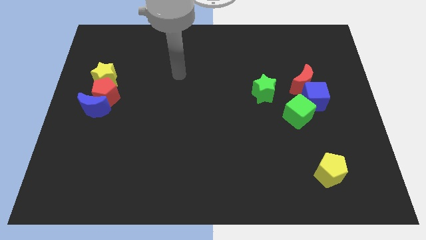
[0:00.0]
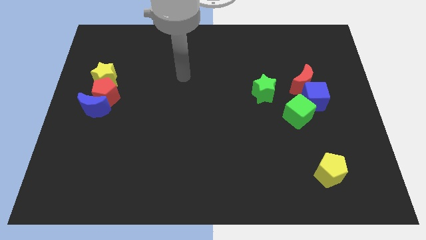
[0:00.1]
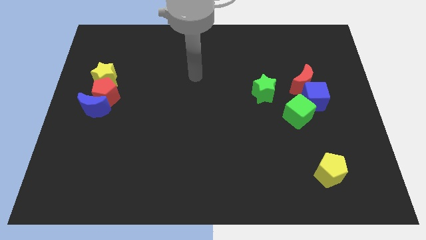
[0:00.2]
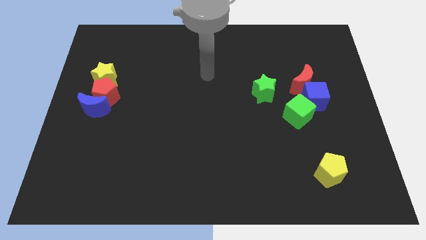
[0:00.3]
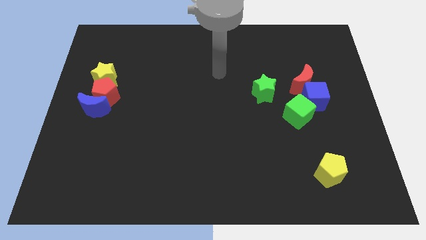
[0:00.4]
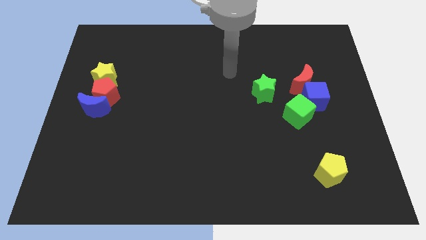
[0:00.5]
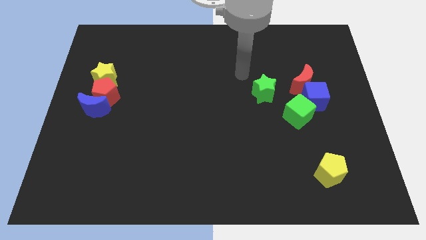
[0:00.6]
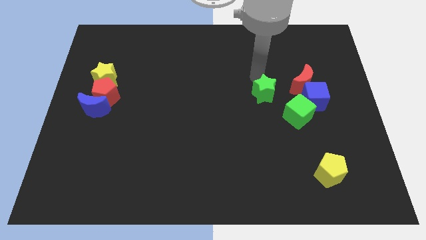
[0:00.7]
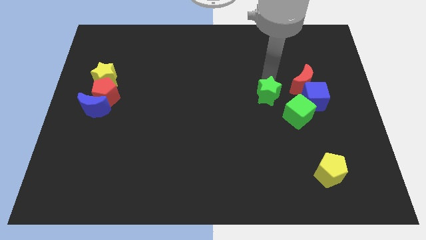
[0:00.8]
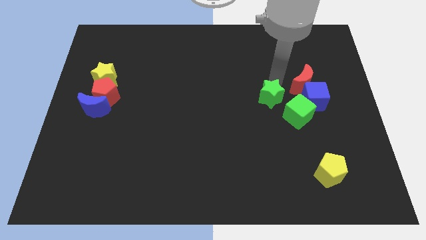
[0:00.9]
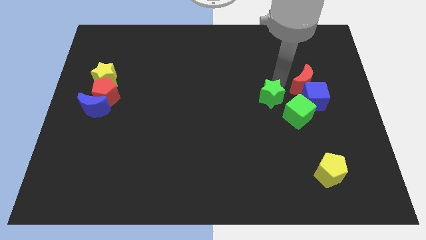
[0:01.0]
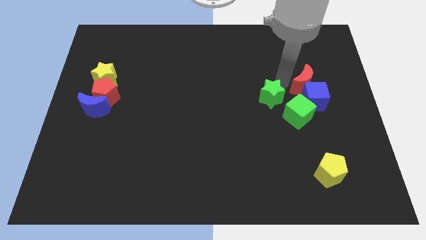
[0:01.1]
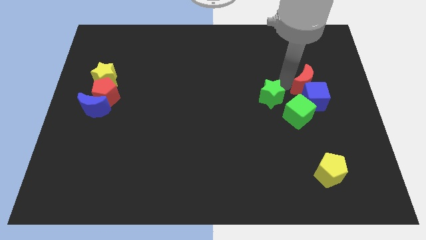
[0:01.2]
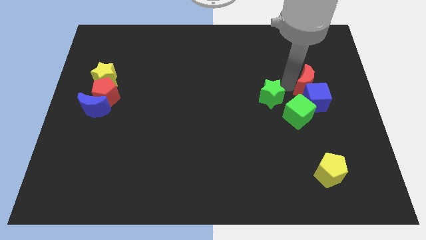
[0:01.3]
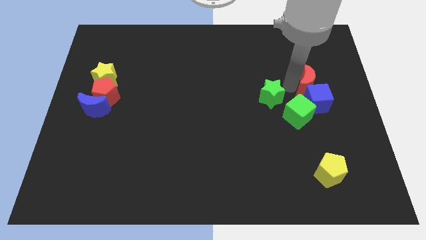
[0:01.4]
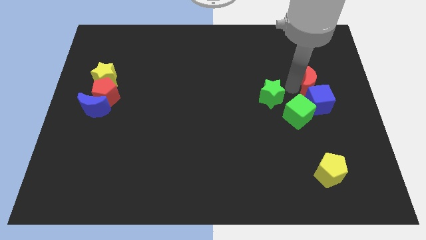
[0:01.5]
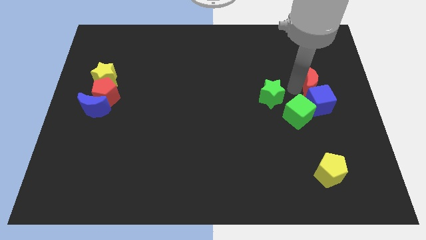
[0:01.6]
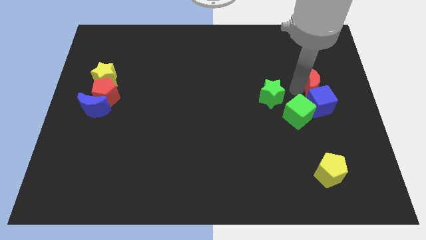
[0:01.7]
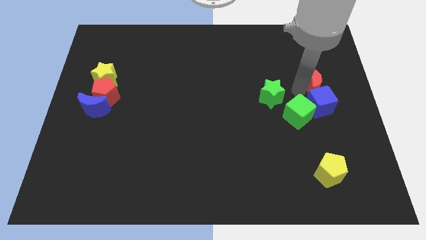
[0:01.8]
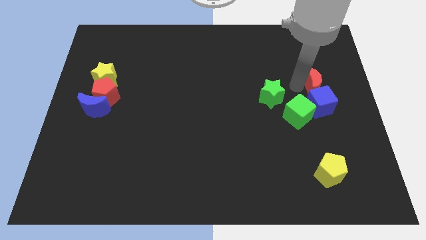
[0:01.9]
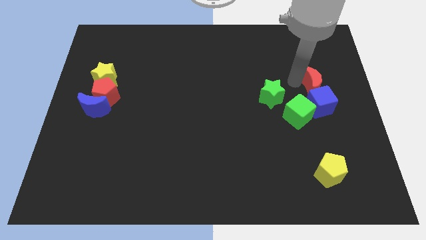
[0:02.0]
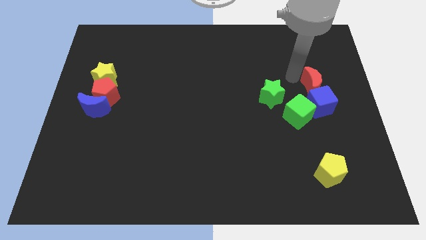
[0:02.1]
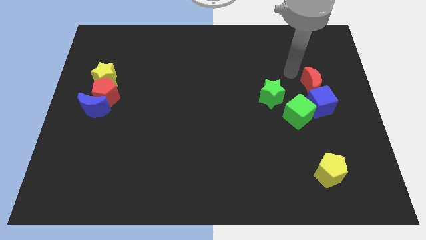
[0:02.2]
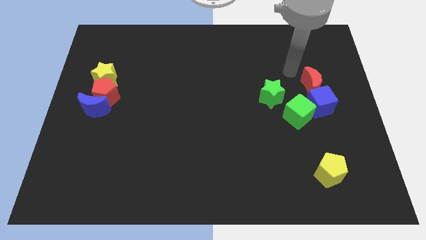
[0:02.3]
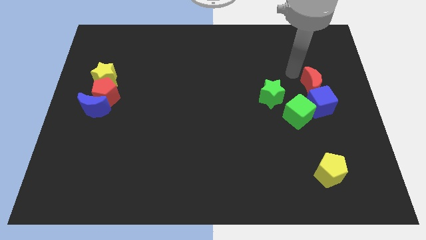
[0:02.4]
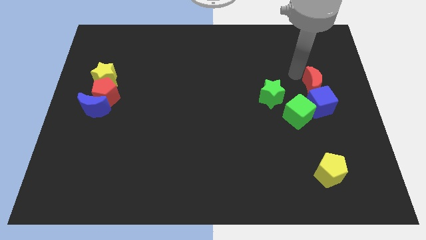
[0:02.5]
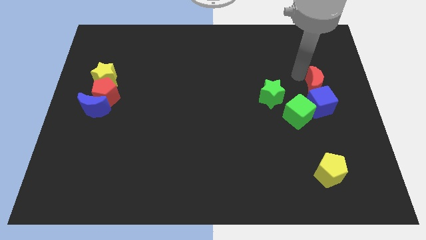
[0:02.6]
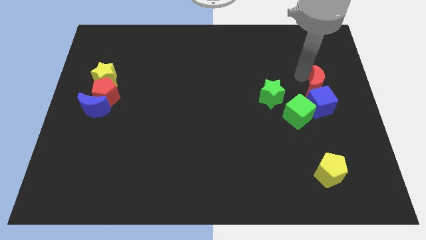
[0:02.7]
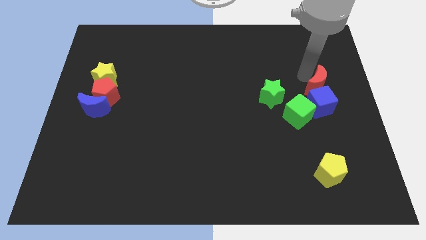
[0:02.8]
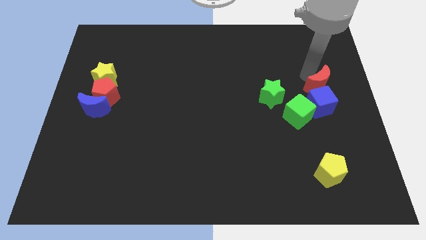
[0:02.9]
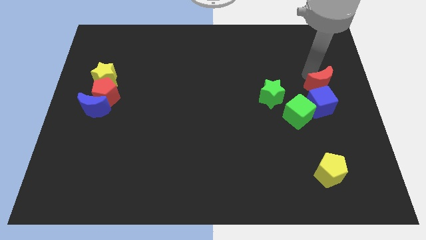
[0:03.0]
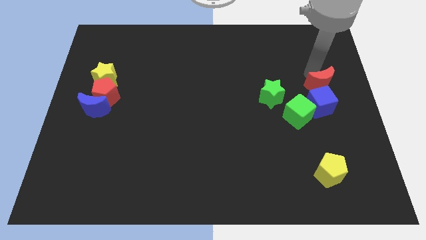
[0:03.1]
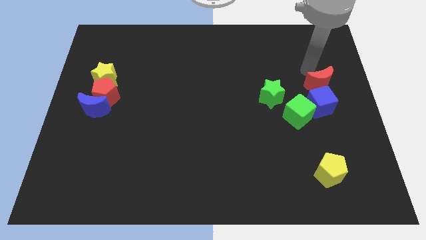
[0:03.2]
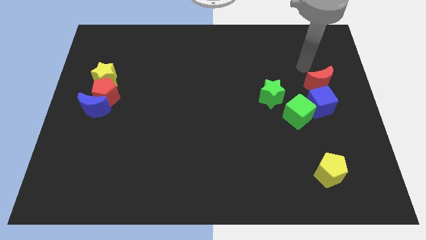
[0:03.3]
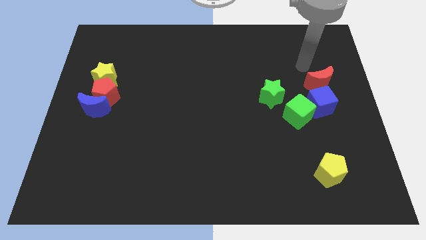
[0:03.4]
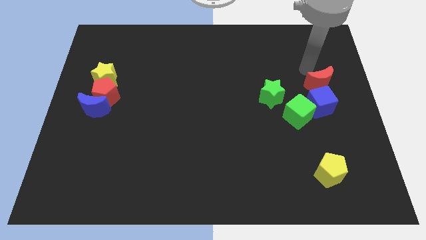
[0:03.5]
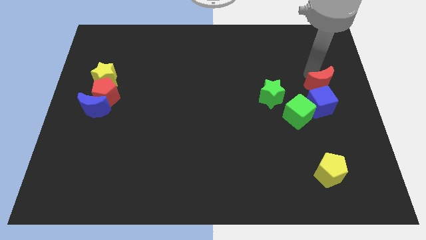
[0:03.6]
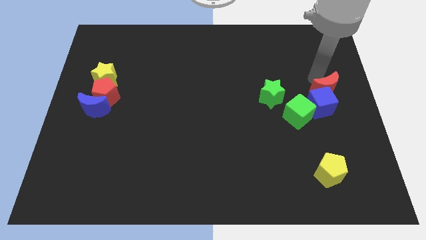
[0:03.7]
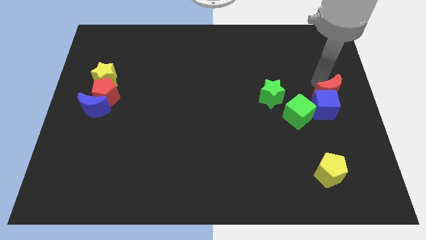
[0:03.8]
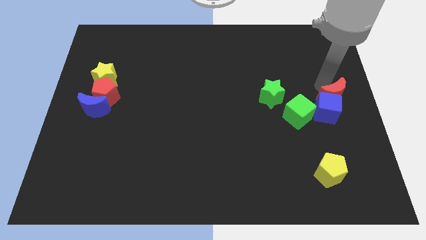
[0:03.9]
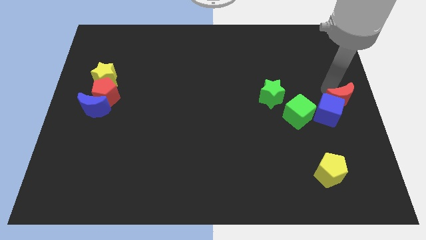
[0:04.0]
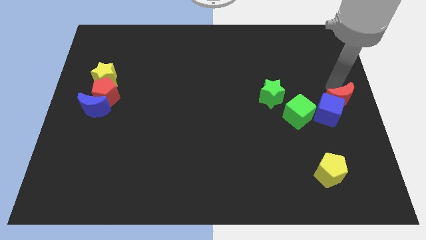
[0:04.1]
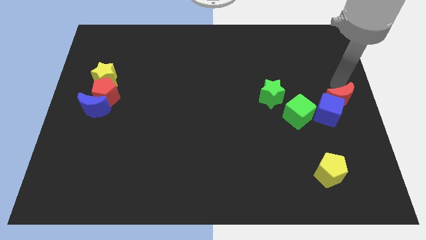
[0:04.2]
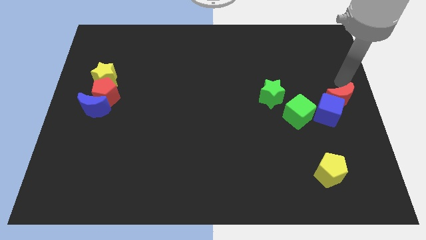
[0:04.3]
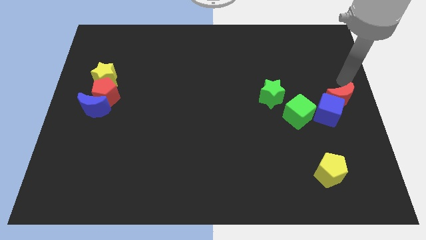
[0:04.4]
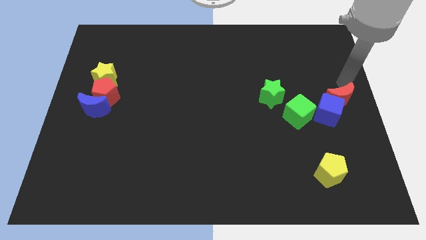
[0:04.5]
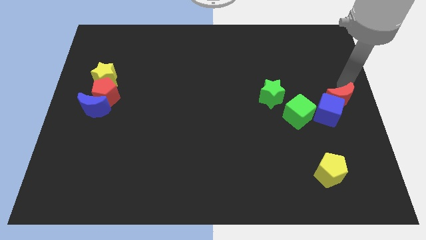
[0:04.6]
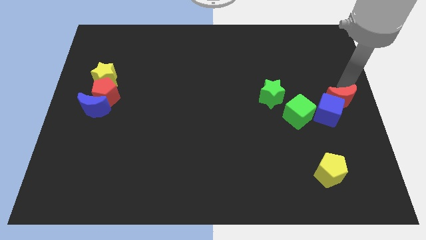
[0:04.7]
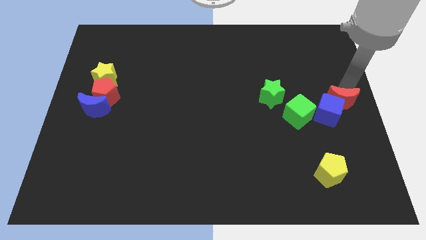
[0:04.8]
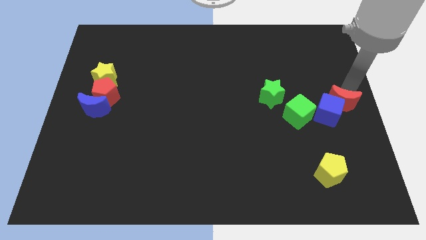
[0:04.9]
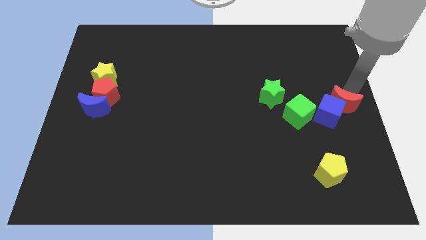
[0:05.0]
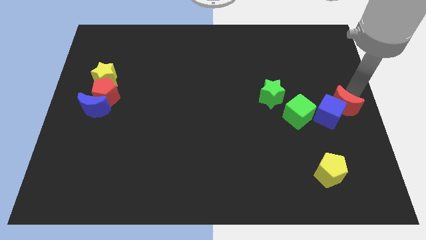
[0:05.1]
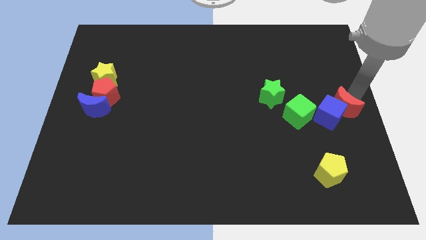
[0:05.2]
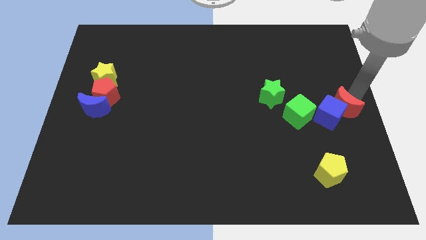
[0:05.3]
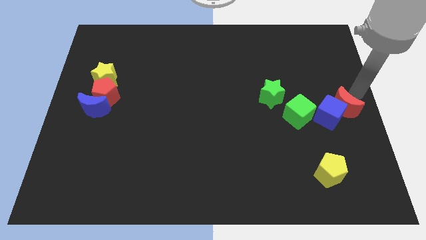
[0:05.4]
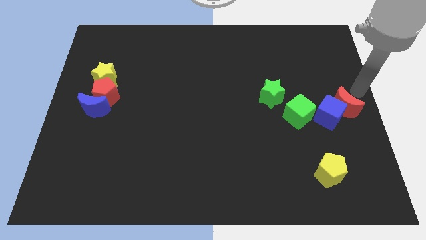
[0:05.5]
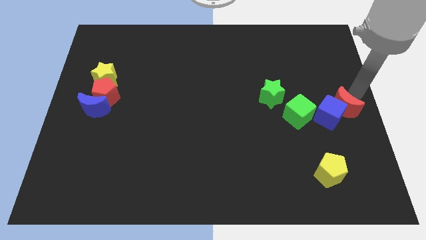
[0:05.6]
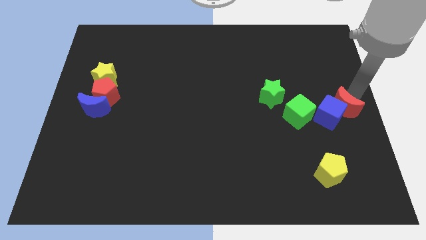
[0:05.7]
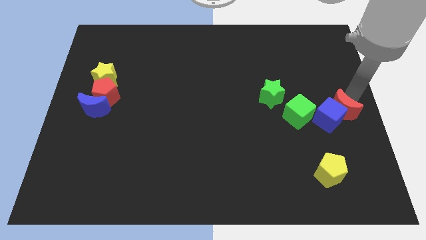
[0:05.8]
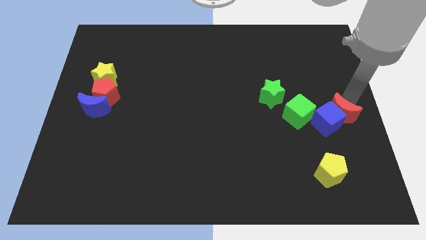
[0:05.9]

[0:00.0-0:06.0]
slide the red moon a little bit down

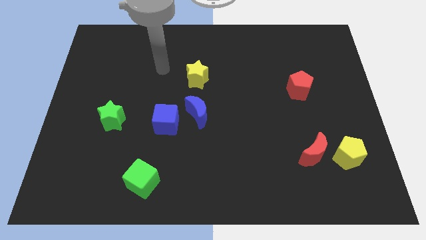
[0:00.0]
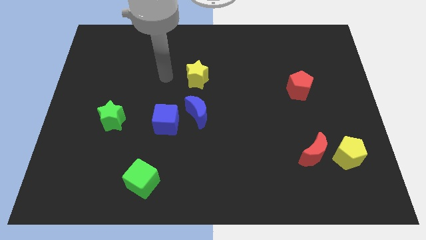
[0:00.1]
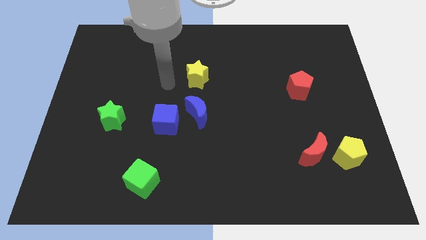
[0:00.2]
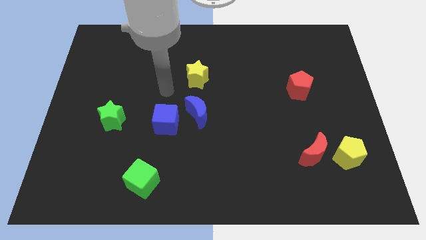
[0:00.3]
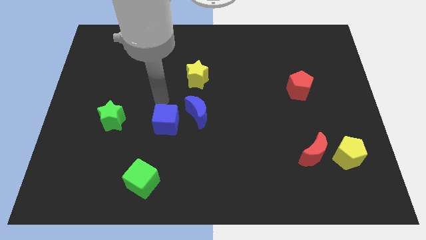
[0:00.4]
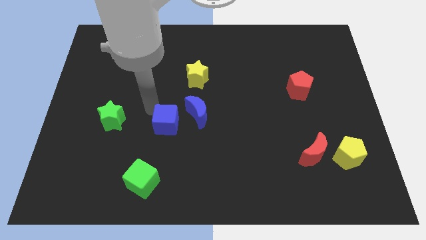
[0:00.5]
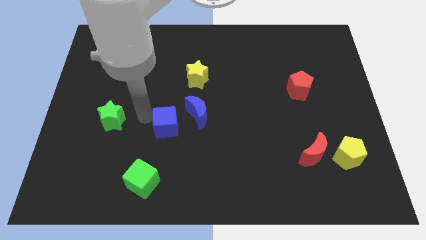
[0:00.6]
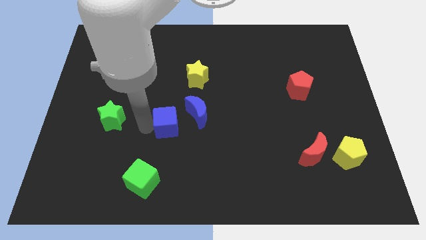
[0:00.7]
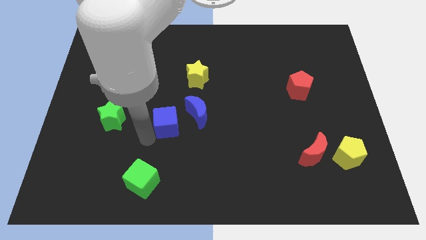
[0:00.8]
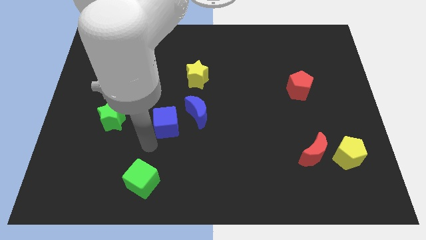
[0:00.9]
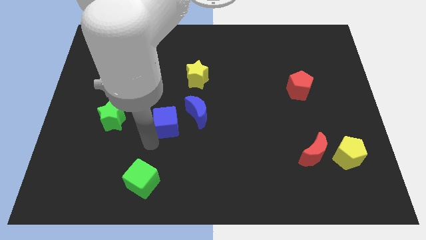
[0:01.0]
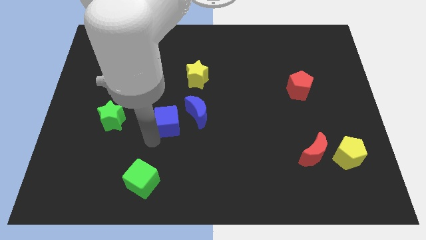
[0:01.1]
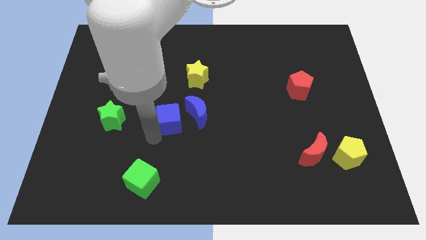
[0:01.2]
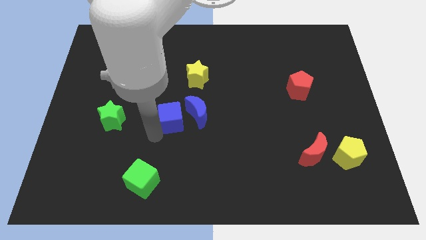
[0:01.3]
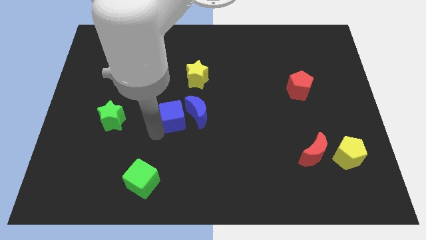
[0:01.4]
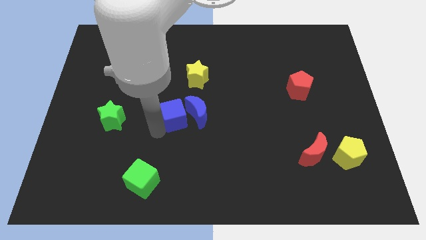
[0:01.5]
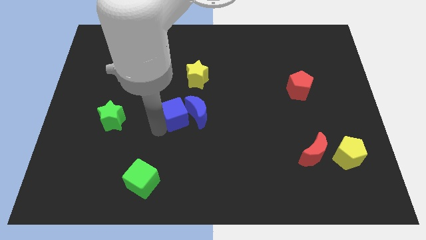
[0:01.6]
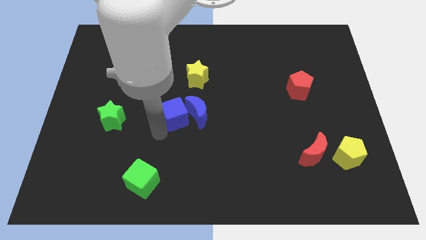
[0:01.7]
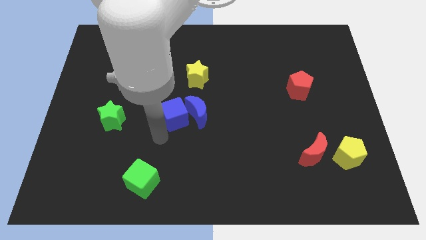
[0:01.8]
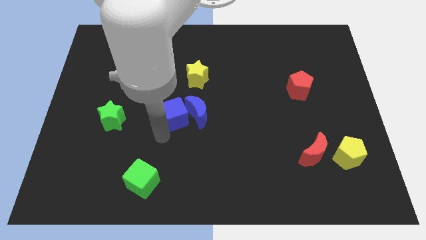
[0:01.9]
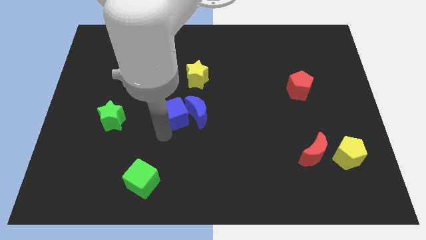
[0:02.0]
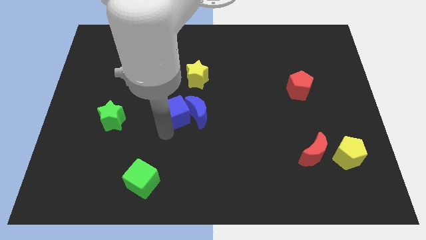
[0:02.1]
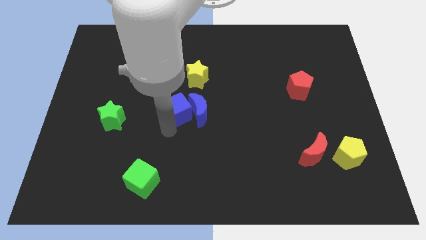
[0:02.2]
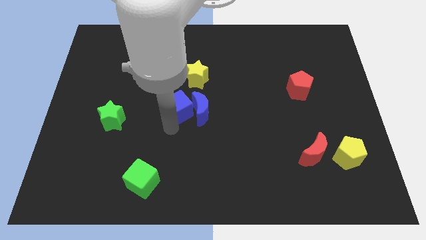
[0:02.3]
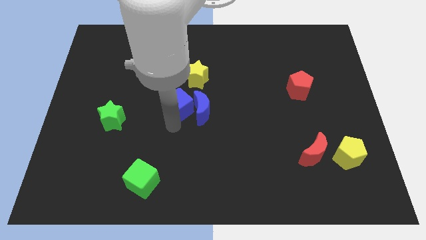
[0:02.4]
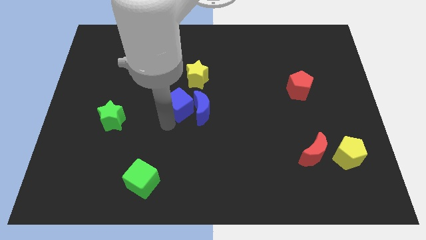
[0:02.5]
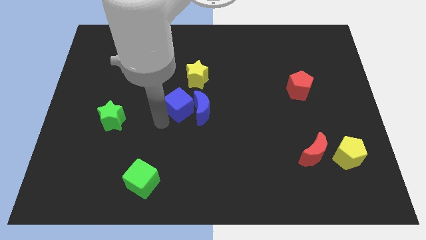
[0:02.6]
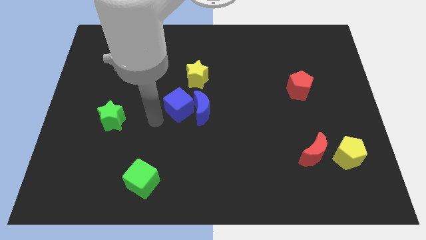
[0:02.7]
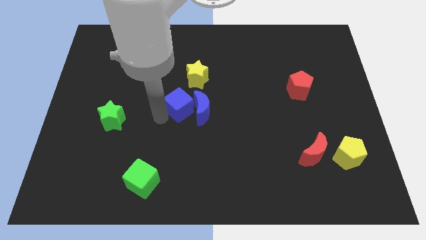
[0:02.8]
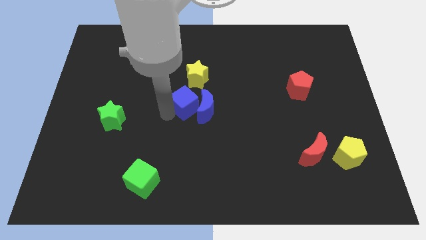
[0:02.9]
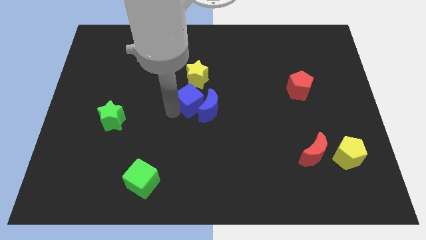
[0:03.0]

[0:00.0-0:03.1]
push the blue cube up and to the right a bit
